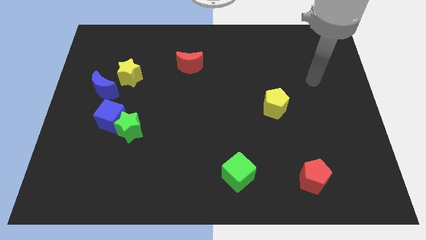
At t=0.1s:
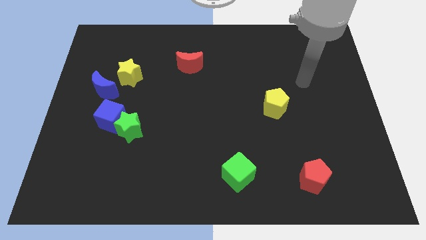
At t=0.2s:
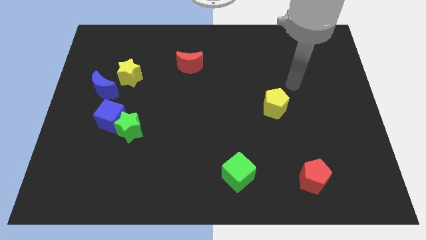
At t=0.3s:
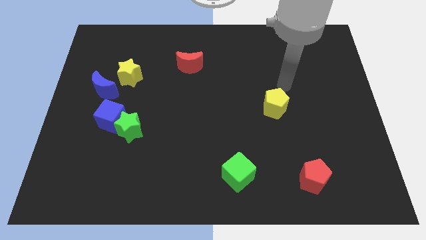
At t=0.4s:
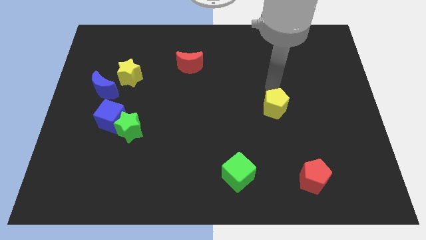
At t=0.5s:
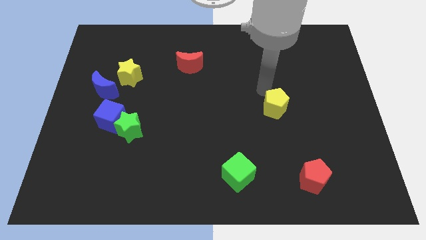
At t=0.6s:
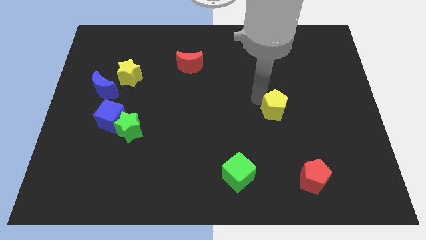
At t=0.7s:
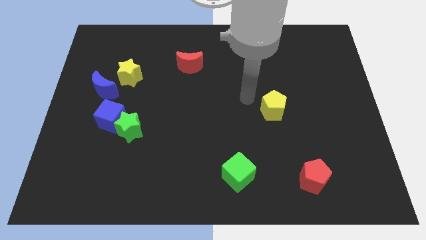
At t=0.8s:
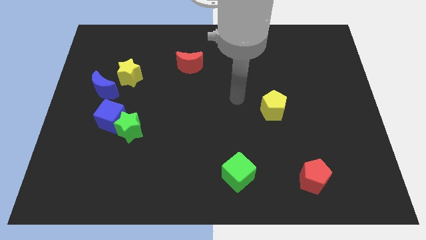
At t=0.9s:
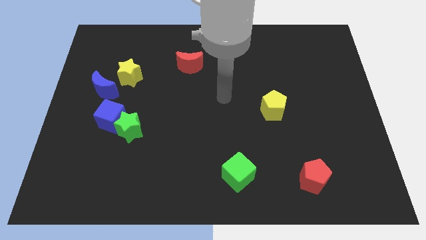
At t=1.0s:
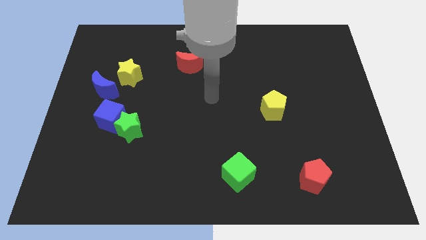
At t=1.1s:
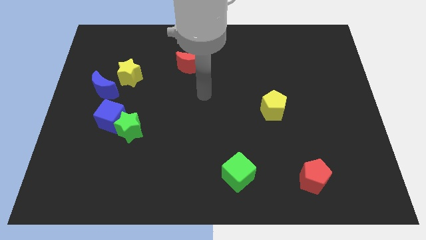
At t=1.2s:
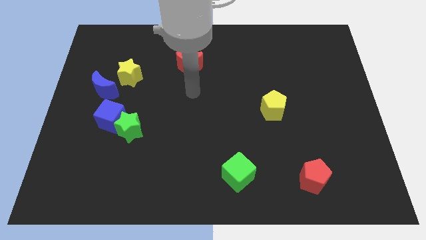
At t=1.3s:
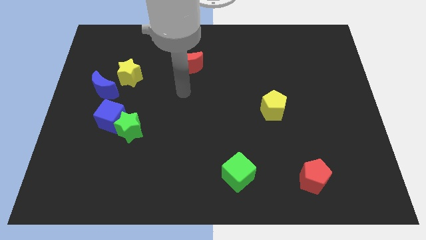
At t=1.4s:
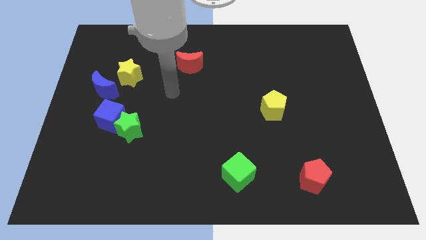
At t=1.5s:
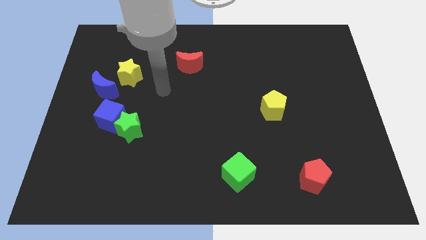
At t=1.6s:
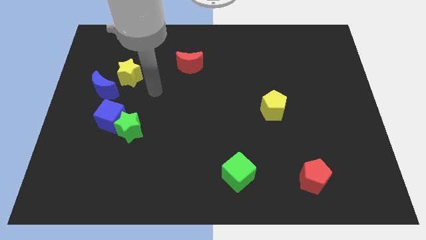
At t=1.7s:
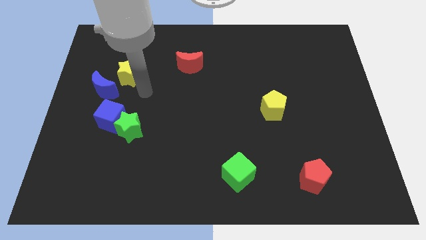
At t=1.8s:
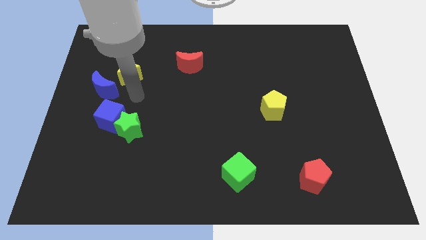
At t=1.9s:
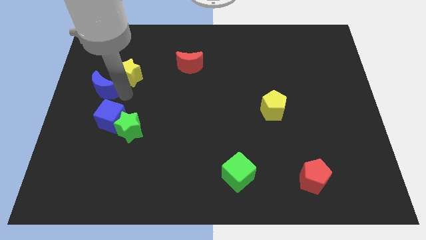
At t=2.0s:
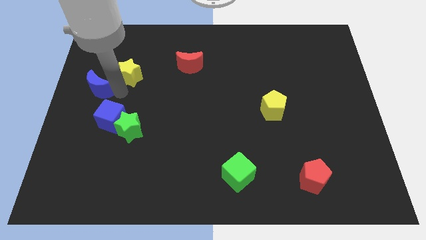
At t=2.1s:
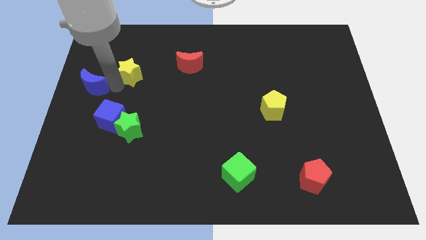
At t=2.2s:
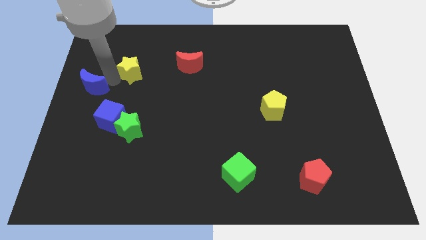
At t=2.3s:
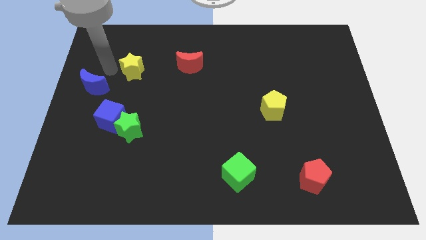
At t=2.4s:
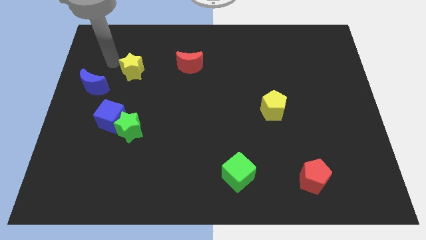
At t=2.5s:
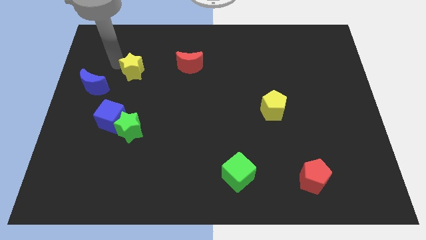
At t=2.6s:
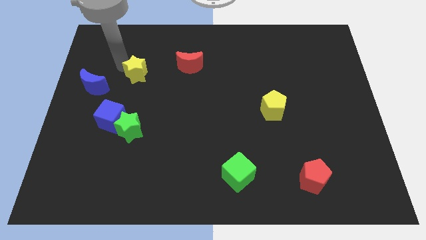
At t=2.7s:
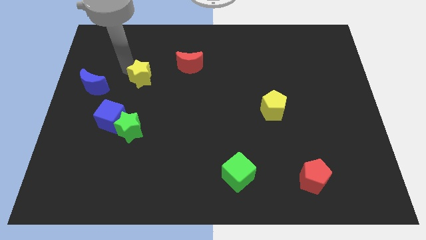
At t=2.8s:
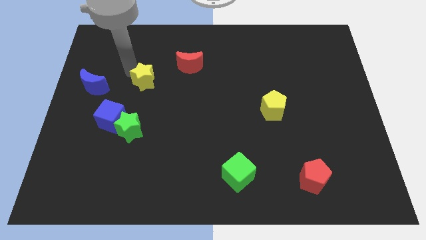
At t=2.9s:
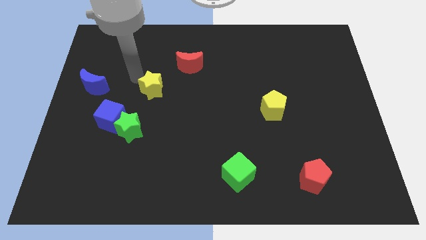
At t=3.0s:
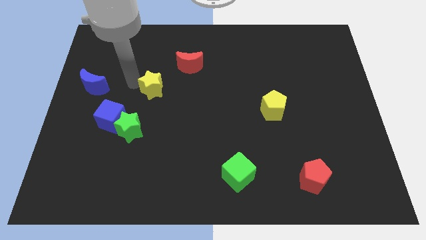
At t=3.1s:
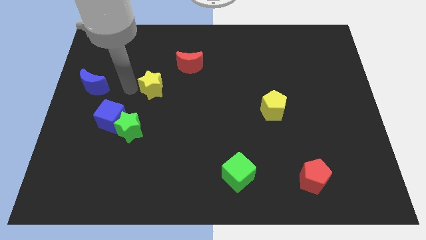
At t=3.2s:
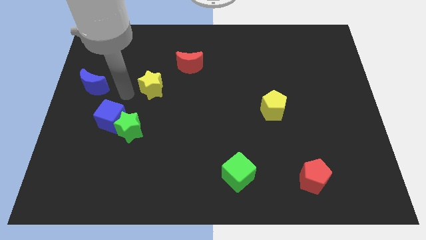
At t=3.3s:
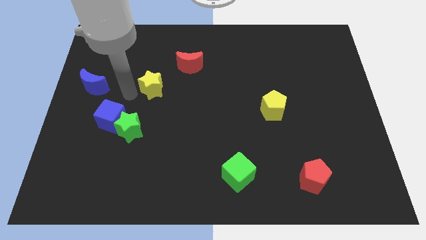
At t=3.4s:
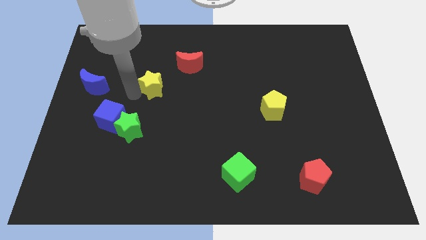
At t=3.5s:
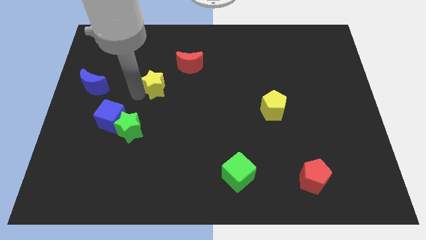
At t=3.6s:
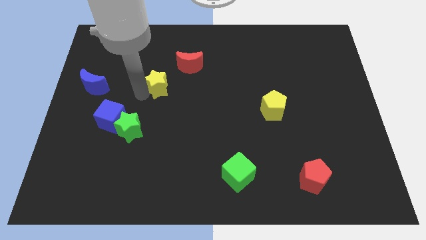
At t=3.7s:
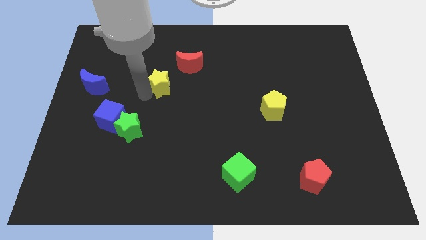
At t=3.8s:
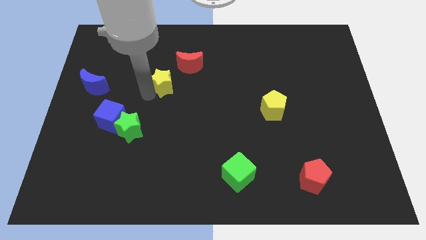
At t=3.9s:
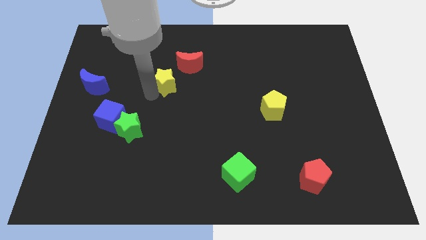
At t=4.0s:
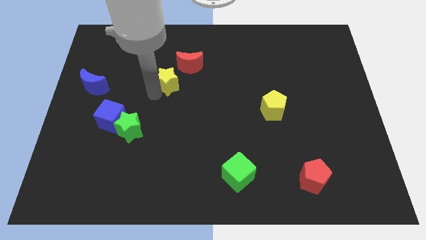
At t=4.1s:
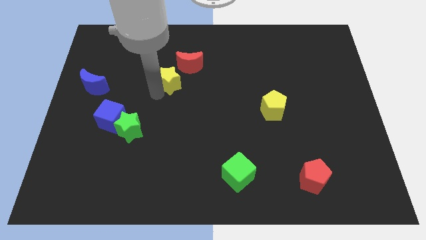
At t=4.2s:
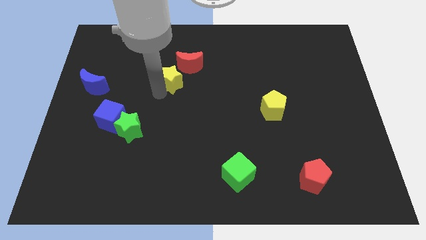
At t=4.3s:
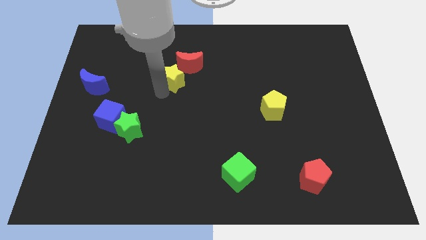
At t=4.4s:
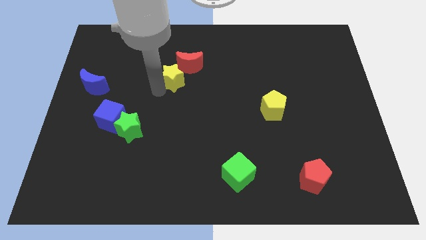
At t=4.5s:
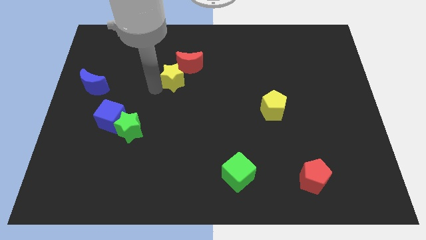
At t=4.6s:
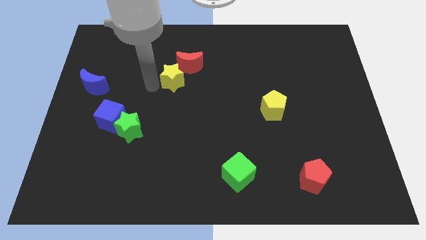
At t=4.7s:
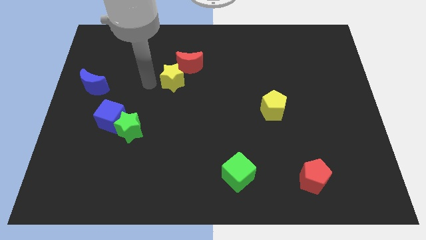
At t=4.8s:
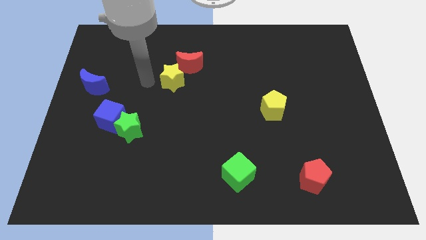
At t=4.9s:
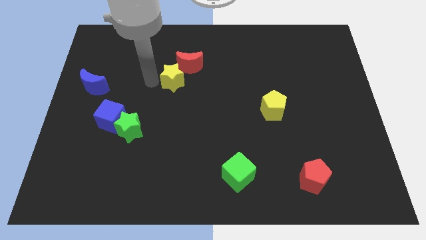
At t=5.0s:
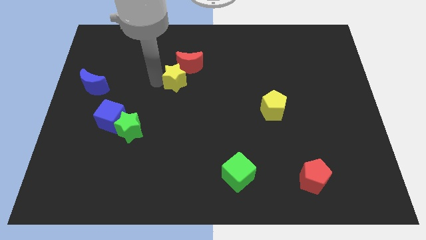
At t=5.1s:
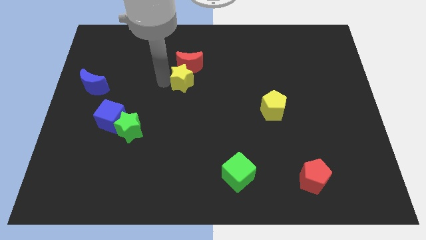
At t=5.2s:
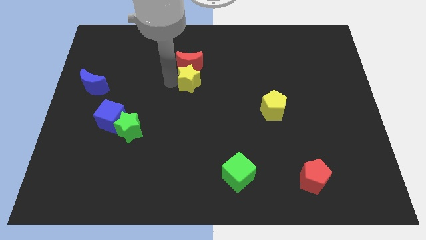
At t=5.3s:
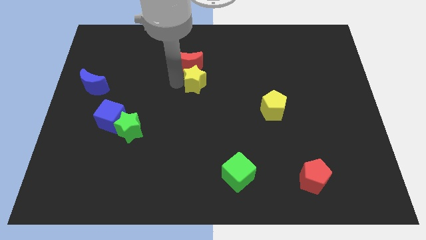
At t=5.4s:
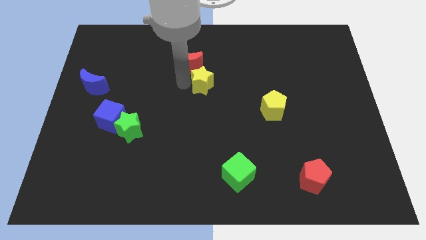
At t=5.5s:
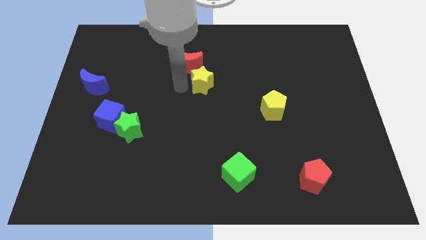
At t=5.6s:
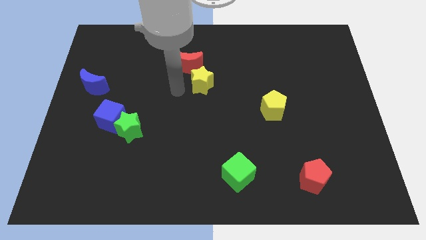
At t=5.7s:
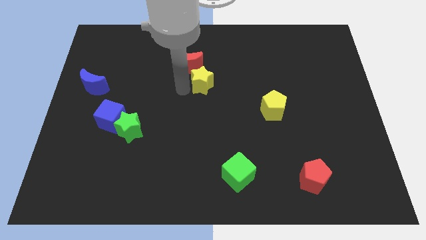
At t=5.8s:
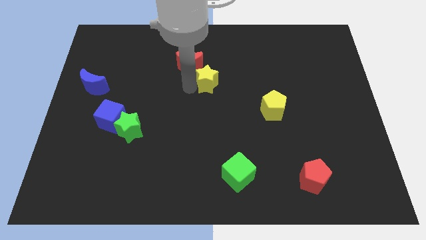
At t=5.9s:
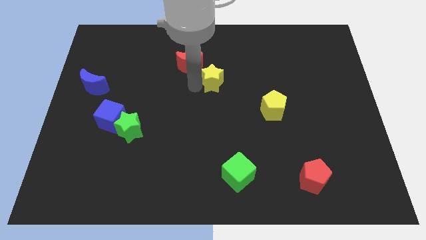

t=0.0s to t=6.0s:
slide the yellow star right

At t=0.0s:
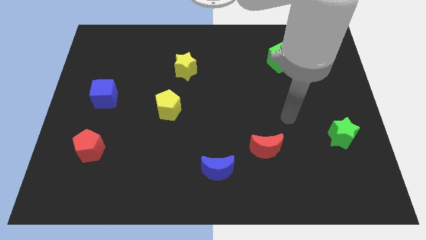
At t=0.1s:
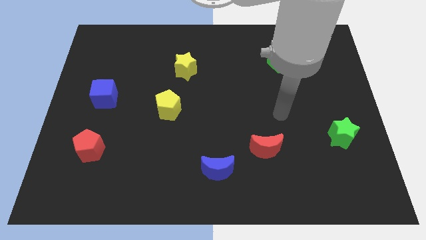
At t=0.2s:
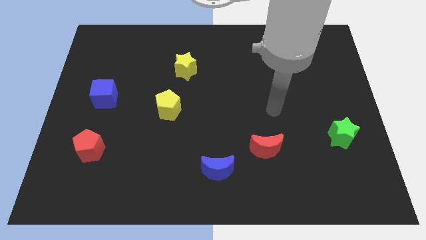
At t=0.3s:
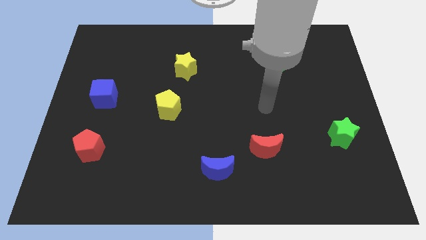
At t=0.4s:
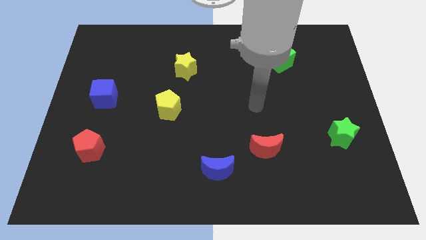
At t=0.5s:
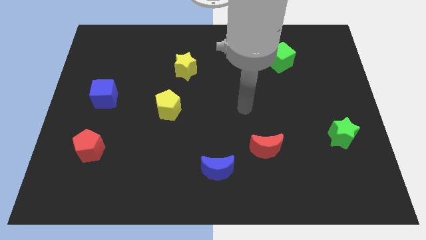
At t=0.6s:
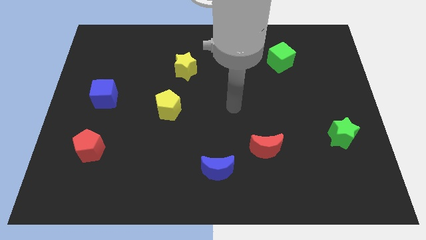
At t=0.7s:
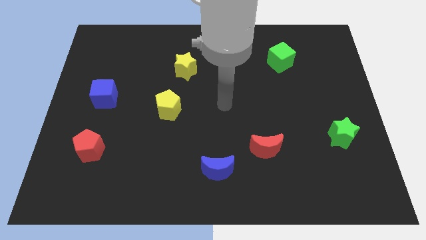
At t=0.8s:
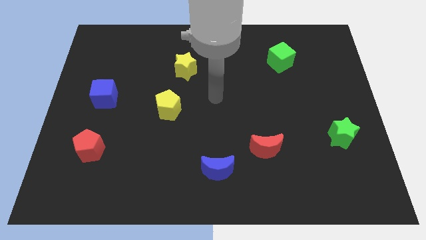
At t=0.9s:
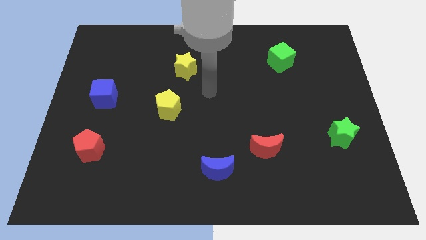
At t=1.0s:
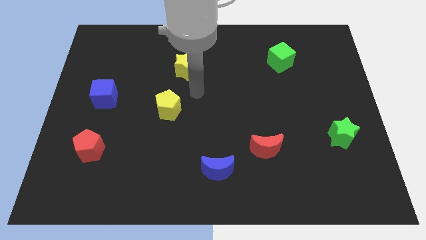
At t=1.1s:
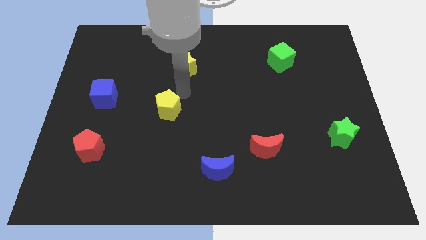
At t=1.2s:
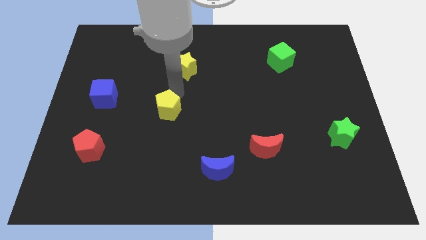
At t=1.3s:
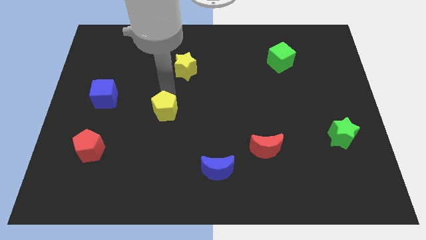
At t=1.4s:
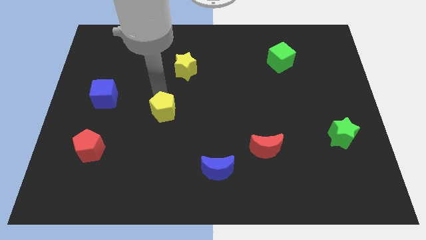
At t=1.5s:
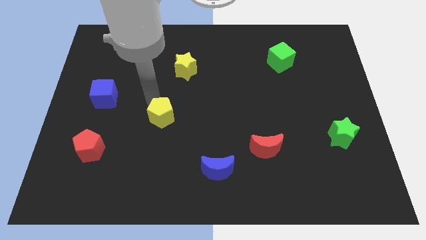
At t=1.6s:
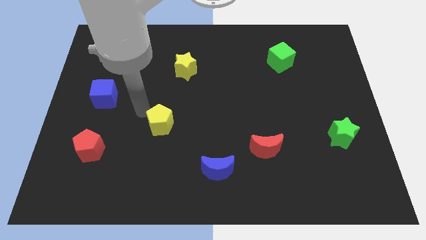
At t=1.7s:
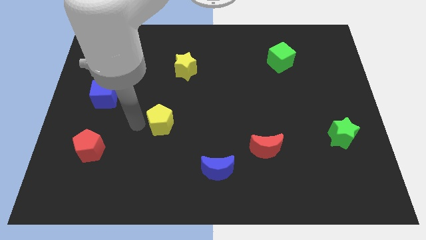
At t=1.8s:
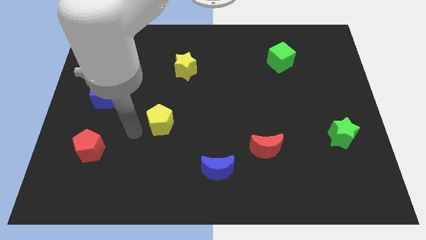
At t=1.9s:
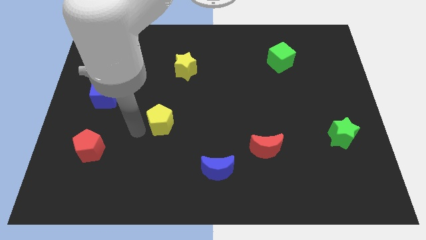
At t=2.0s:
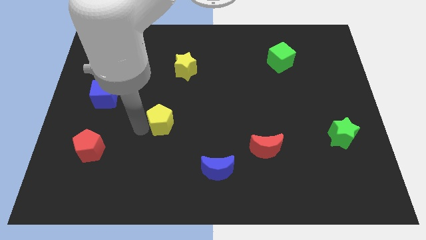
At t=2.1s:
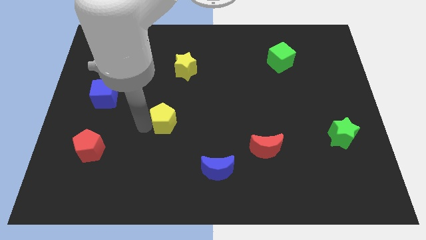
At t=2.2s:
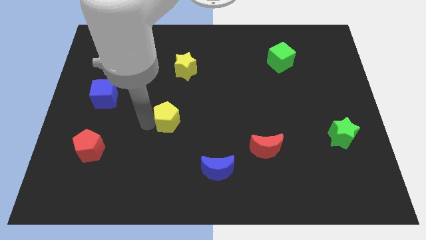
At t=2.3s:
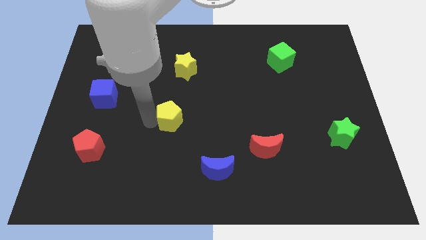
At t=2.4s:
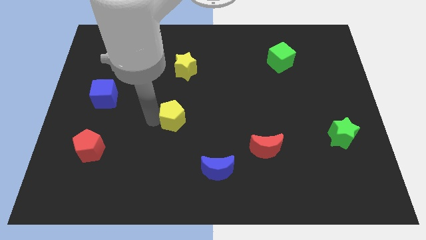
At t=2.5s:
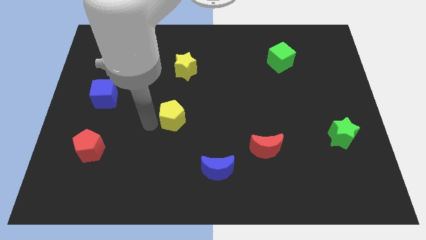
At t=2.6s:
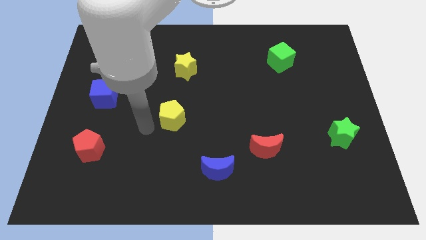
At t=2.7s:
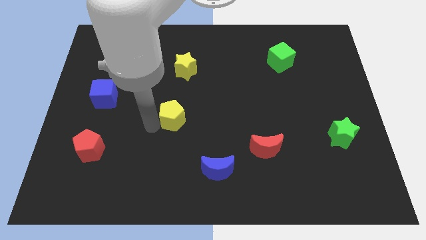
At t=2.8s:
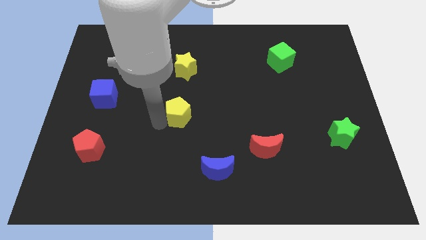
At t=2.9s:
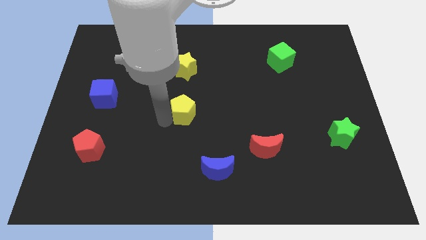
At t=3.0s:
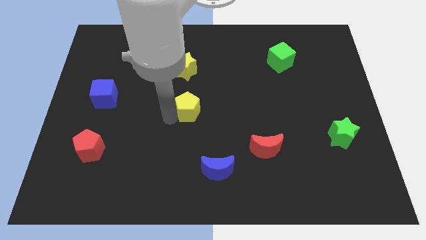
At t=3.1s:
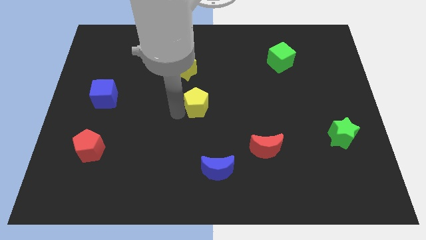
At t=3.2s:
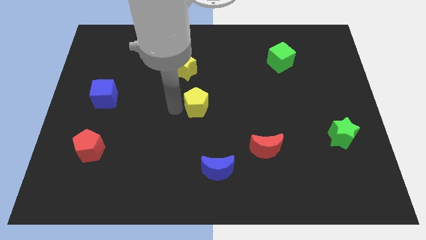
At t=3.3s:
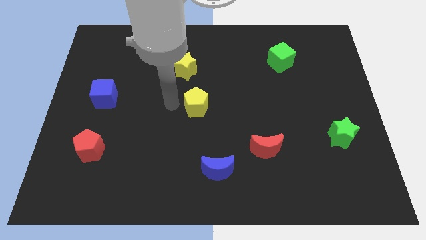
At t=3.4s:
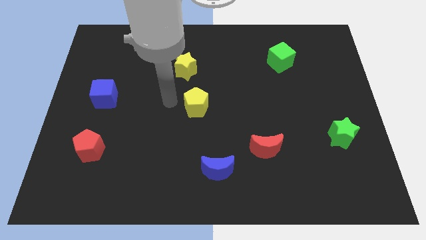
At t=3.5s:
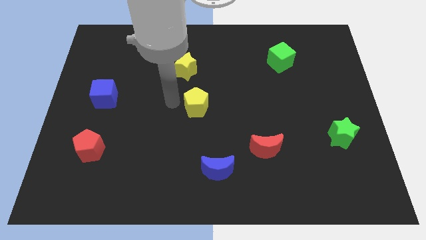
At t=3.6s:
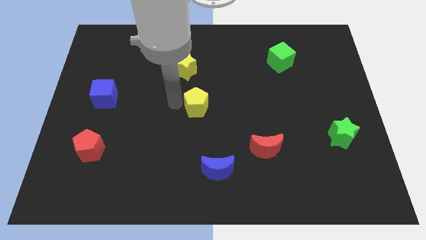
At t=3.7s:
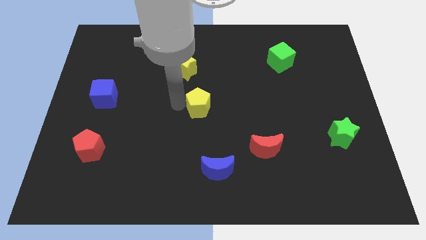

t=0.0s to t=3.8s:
slightly move the yellow pentagon to the right
